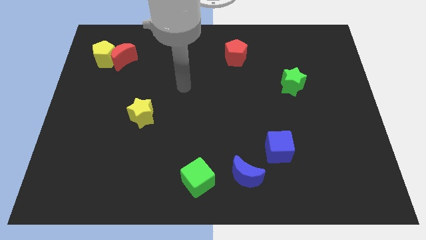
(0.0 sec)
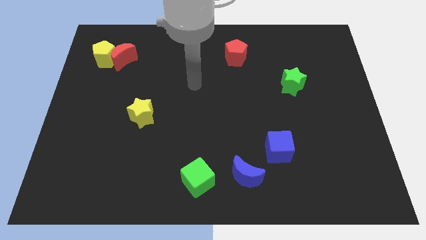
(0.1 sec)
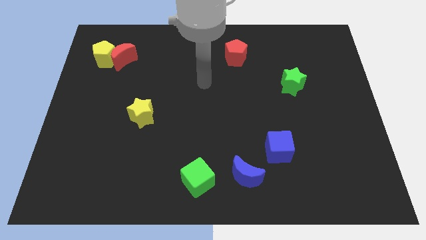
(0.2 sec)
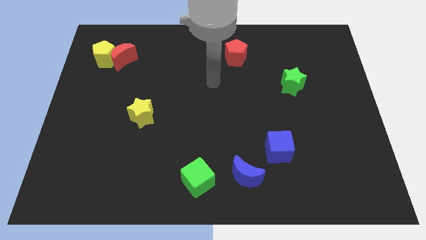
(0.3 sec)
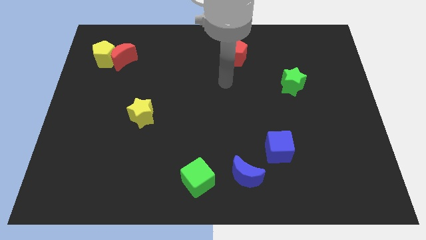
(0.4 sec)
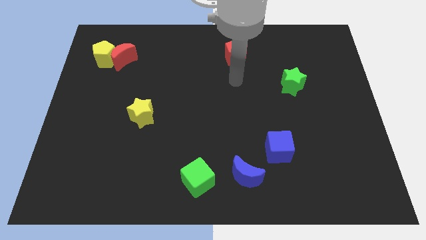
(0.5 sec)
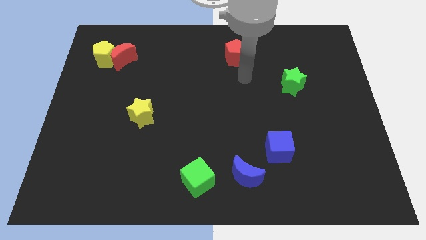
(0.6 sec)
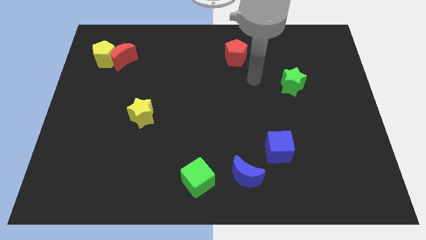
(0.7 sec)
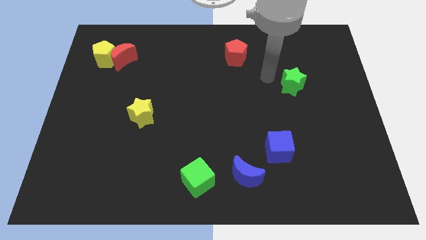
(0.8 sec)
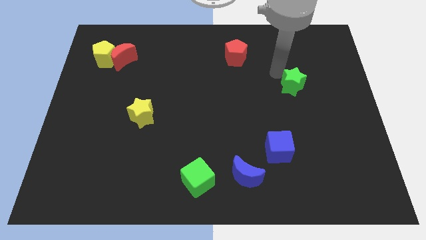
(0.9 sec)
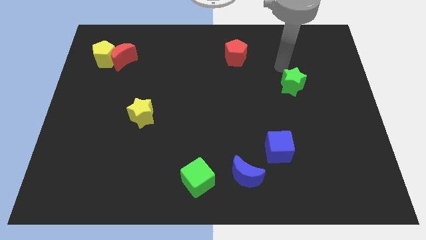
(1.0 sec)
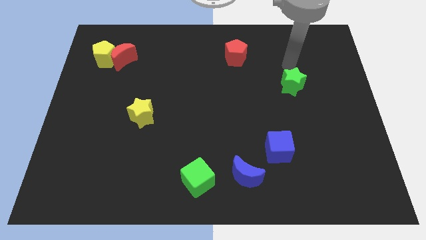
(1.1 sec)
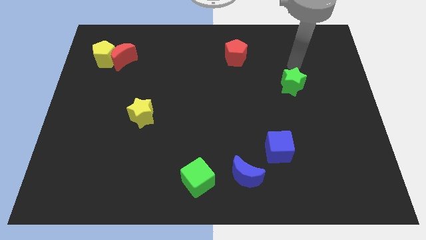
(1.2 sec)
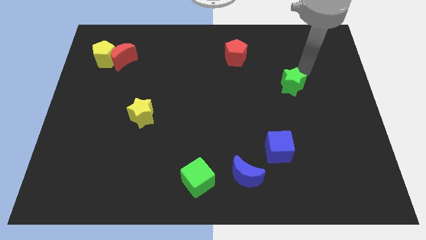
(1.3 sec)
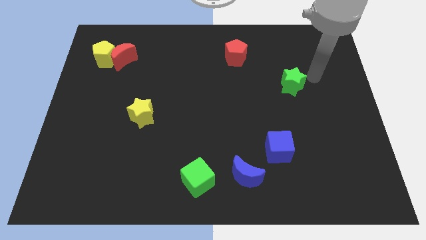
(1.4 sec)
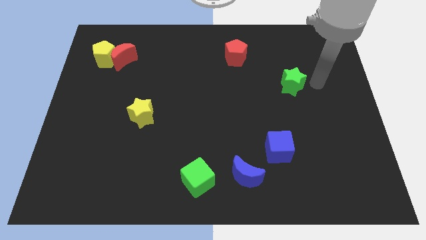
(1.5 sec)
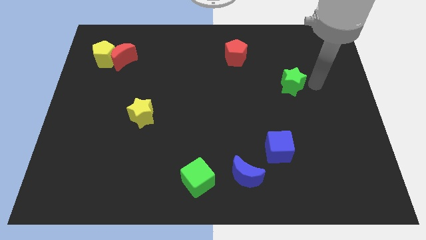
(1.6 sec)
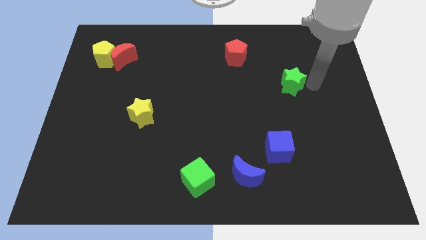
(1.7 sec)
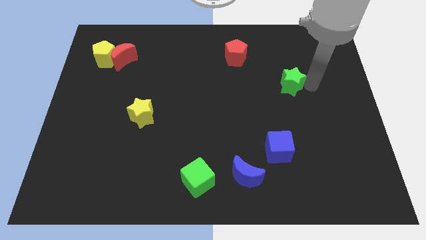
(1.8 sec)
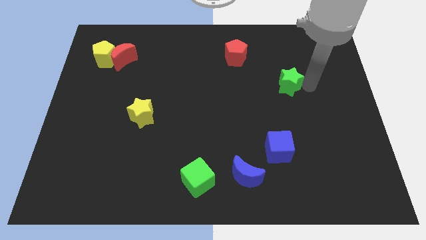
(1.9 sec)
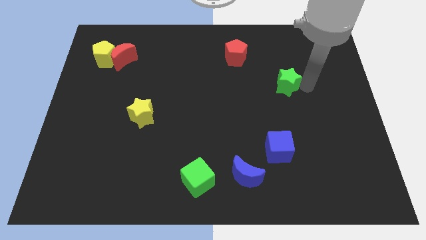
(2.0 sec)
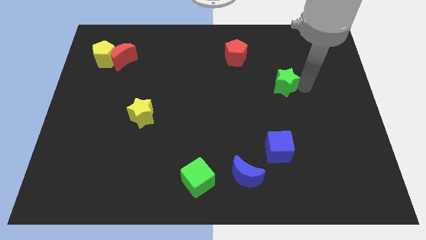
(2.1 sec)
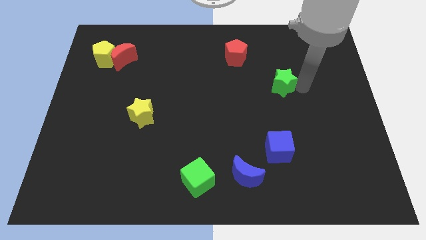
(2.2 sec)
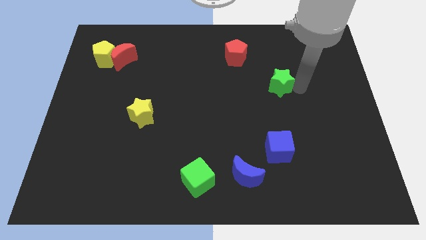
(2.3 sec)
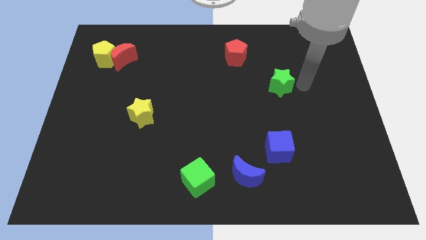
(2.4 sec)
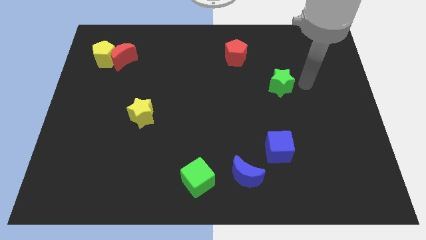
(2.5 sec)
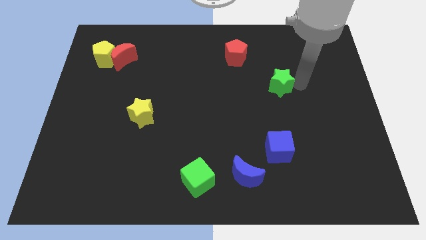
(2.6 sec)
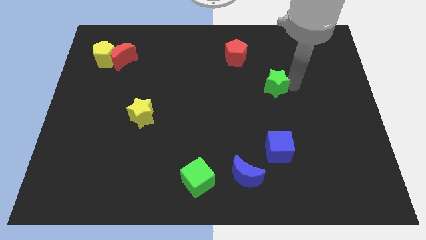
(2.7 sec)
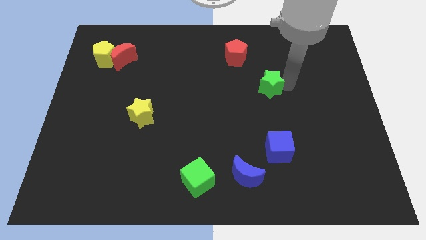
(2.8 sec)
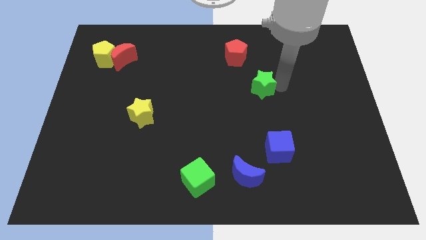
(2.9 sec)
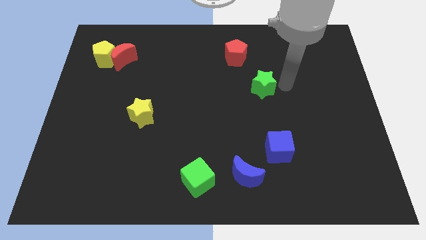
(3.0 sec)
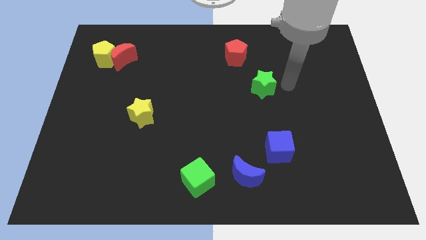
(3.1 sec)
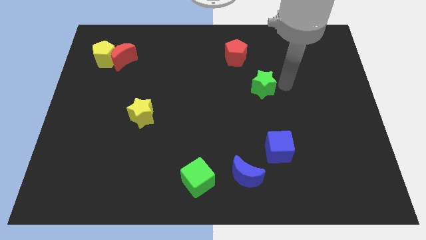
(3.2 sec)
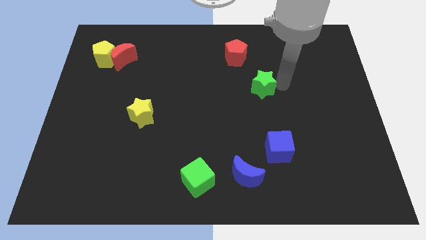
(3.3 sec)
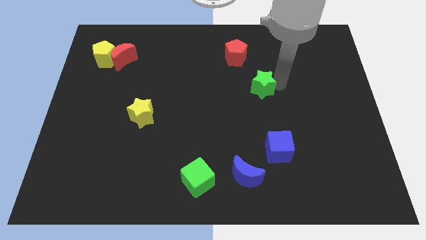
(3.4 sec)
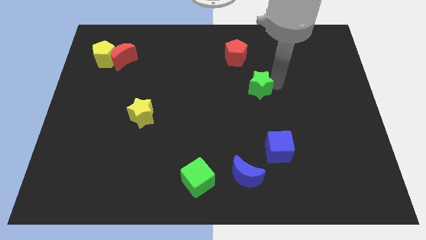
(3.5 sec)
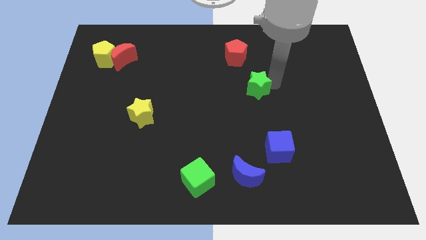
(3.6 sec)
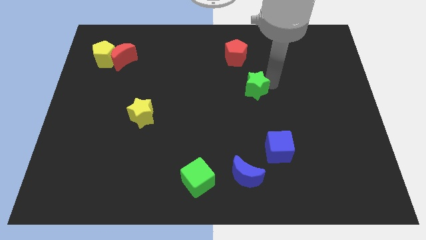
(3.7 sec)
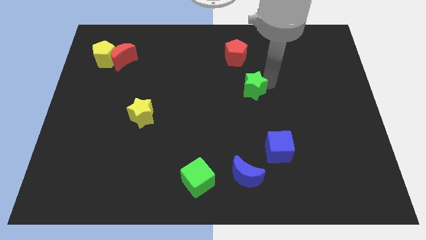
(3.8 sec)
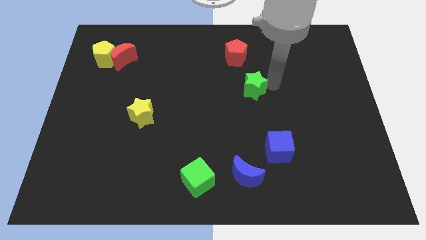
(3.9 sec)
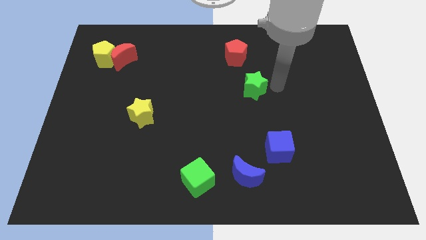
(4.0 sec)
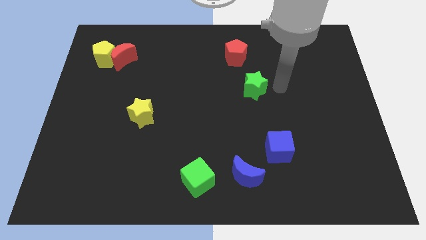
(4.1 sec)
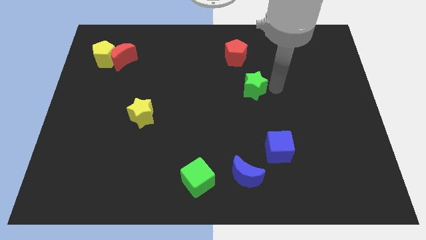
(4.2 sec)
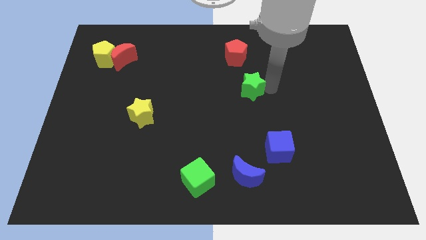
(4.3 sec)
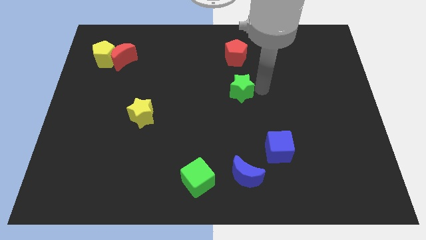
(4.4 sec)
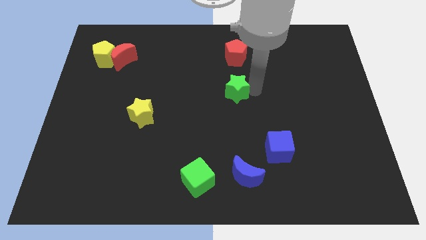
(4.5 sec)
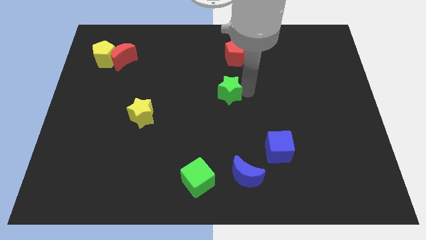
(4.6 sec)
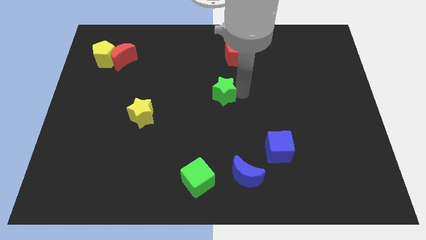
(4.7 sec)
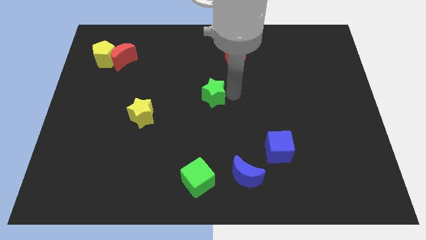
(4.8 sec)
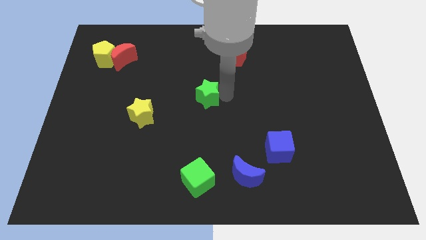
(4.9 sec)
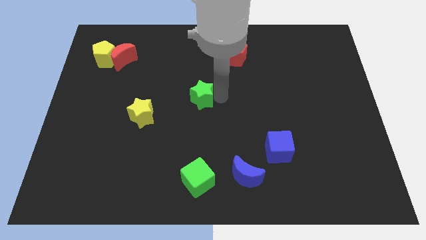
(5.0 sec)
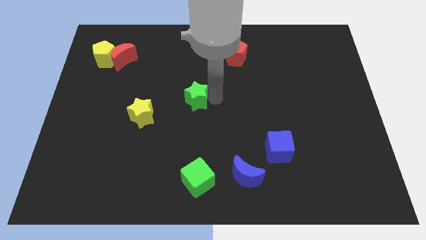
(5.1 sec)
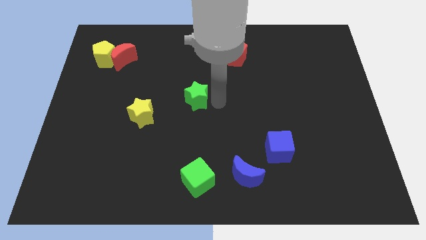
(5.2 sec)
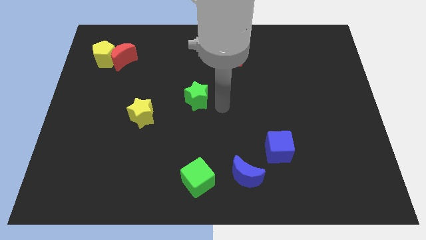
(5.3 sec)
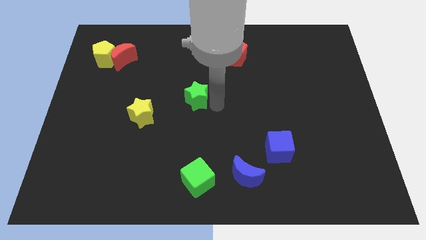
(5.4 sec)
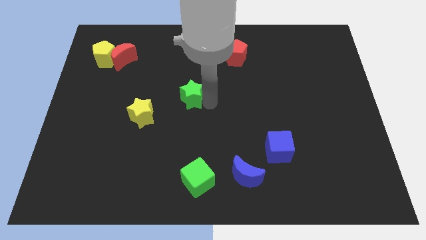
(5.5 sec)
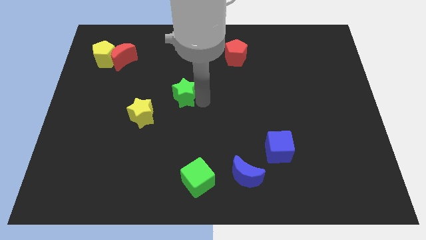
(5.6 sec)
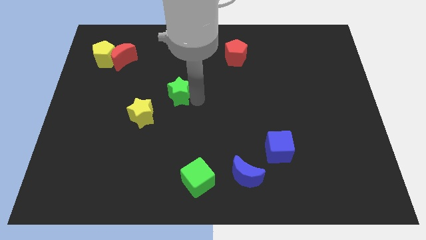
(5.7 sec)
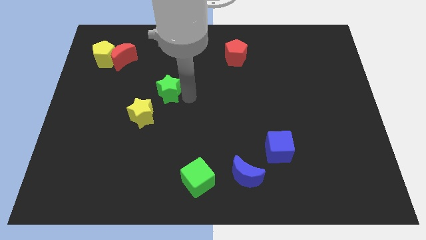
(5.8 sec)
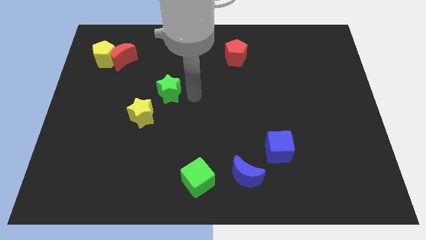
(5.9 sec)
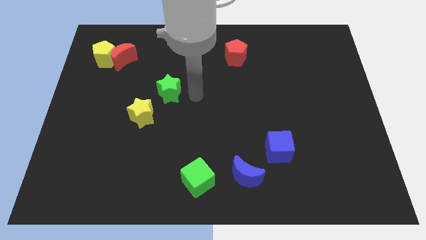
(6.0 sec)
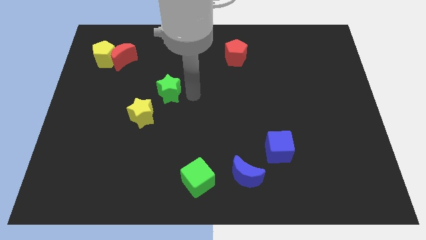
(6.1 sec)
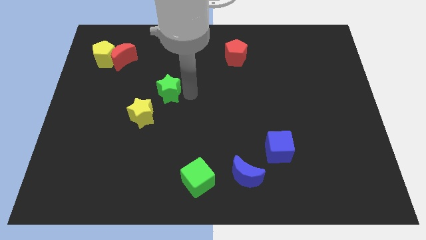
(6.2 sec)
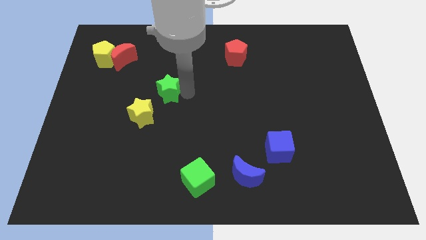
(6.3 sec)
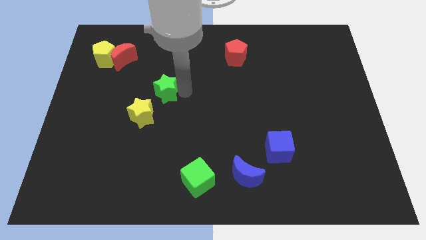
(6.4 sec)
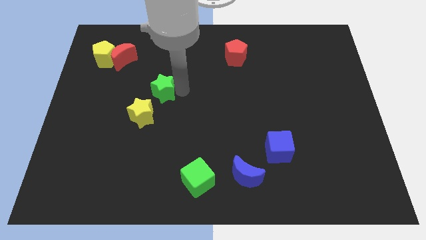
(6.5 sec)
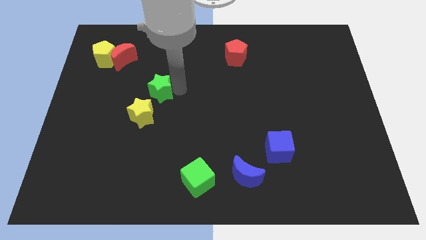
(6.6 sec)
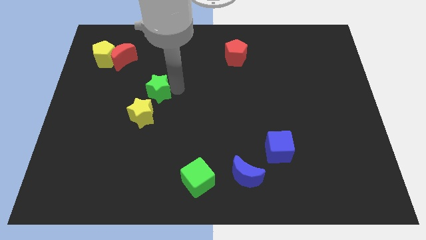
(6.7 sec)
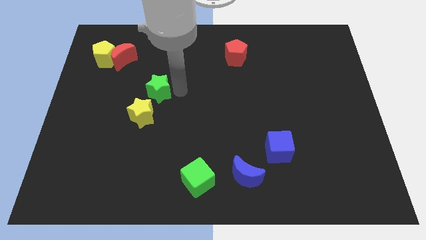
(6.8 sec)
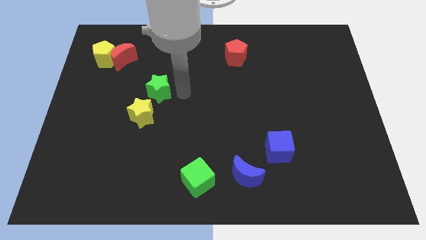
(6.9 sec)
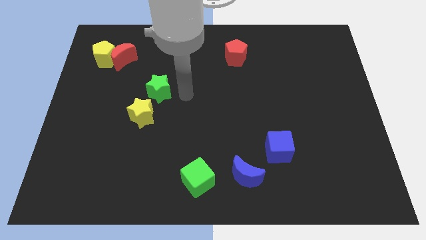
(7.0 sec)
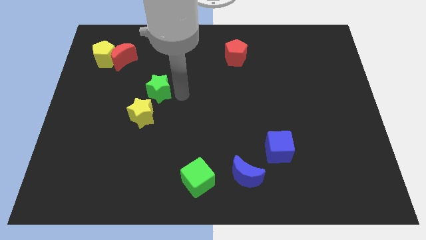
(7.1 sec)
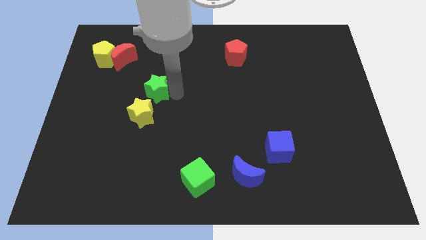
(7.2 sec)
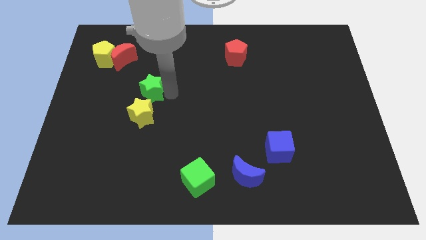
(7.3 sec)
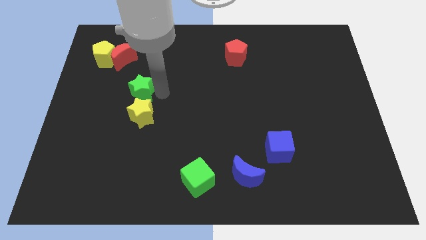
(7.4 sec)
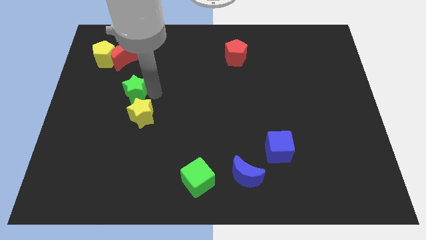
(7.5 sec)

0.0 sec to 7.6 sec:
push the green star below the red moon
